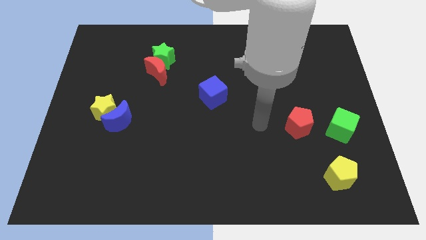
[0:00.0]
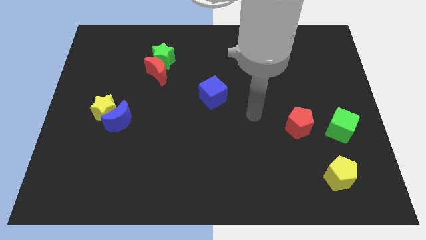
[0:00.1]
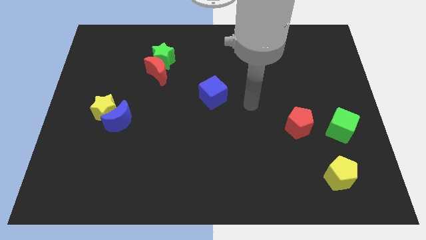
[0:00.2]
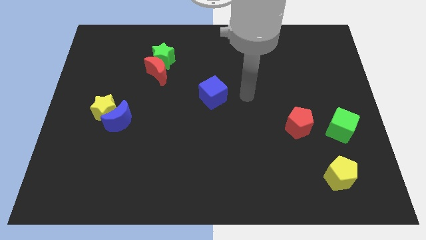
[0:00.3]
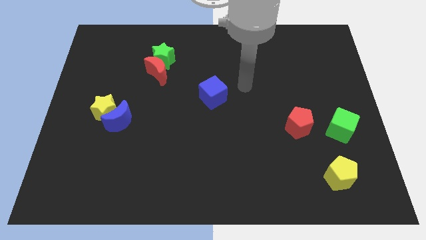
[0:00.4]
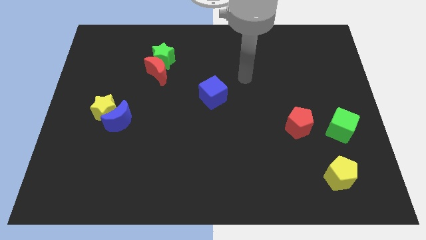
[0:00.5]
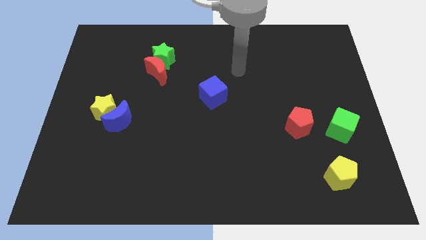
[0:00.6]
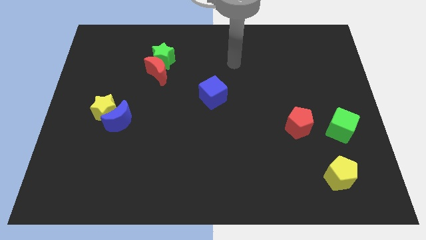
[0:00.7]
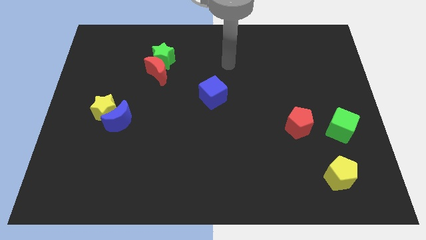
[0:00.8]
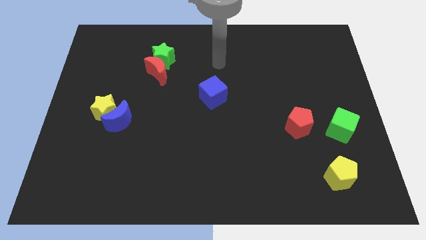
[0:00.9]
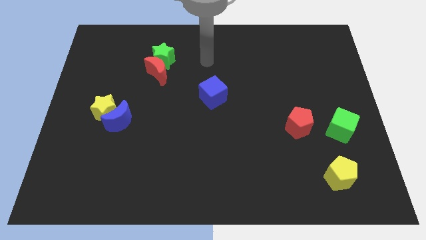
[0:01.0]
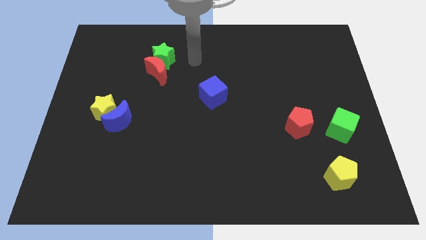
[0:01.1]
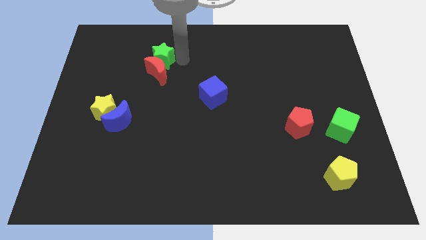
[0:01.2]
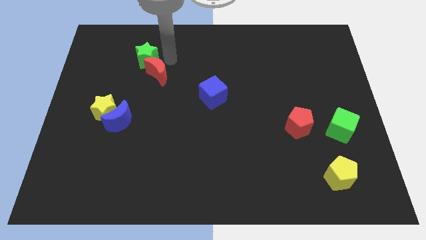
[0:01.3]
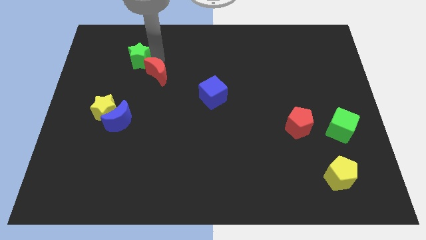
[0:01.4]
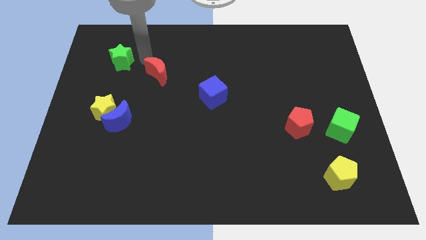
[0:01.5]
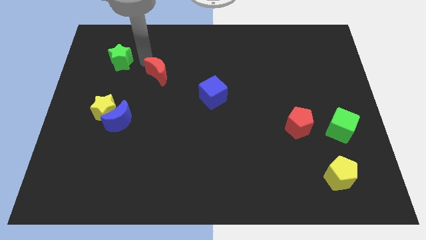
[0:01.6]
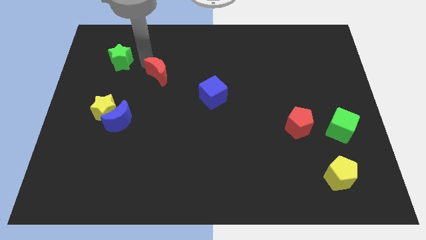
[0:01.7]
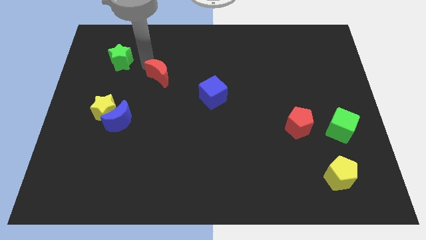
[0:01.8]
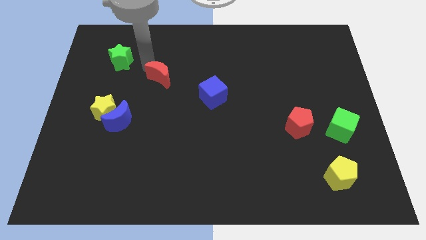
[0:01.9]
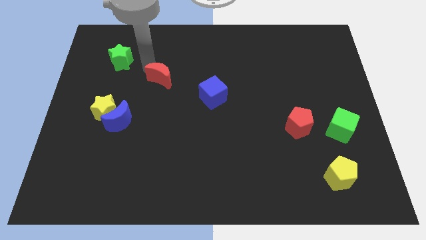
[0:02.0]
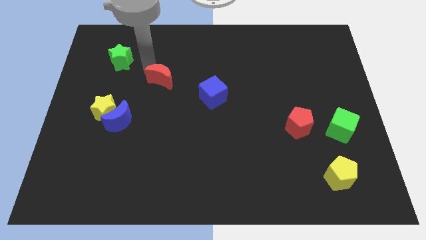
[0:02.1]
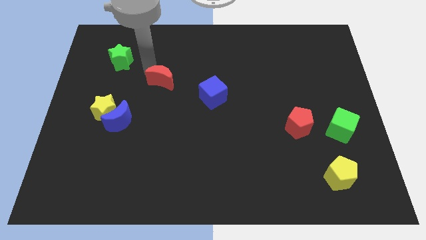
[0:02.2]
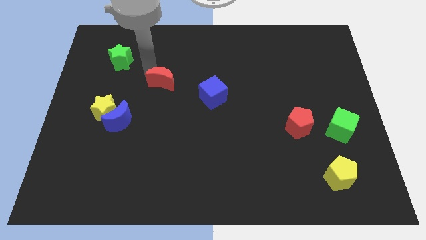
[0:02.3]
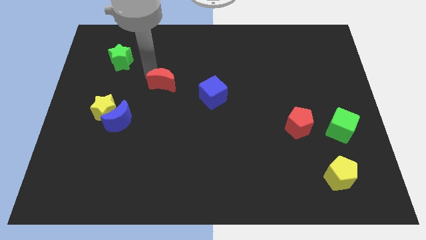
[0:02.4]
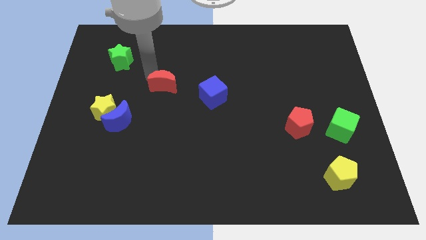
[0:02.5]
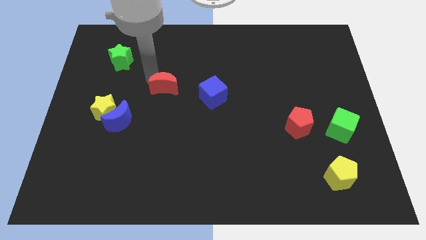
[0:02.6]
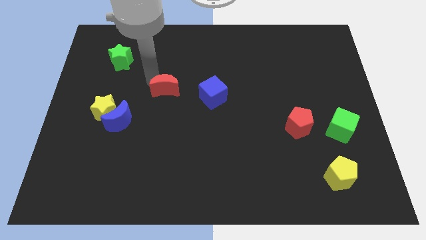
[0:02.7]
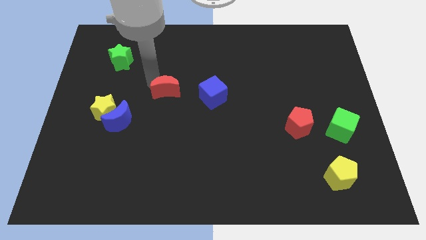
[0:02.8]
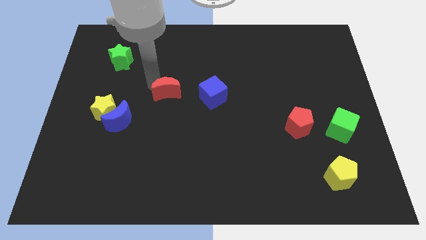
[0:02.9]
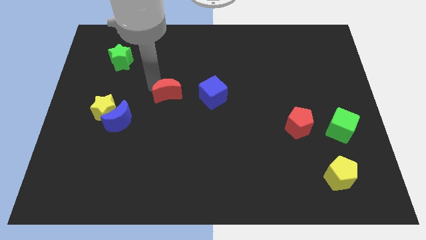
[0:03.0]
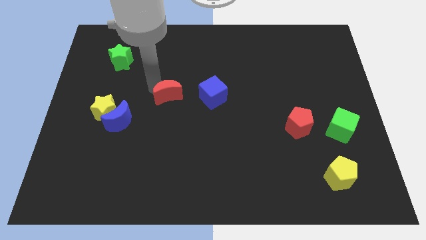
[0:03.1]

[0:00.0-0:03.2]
move the red moon diagonally downwards and to the right a little

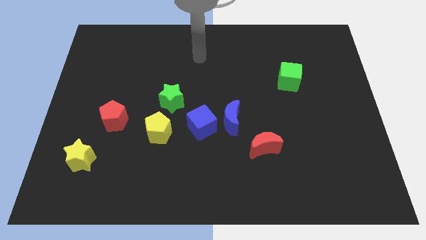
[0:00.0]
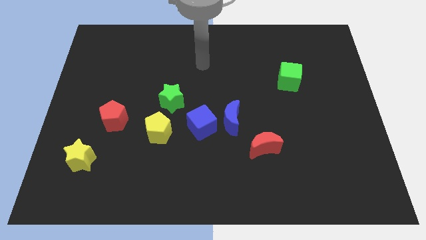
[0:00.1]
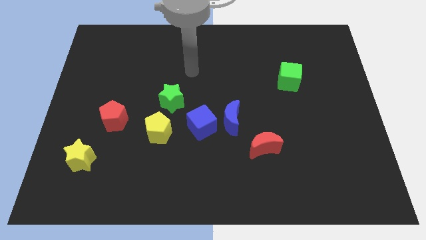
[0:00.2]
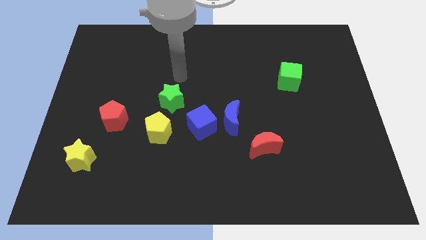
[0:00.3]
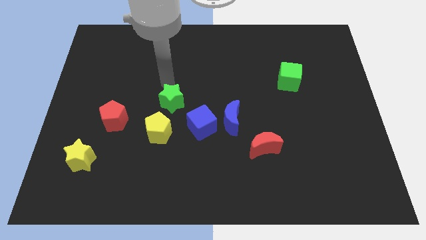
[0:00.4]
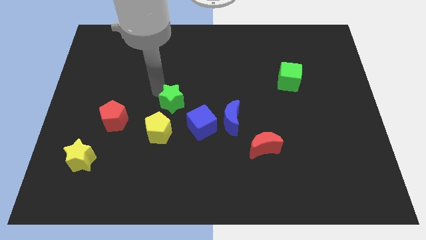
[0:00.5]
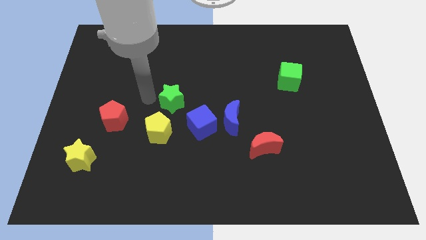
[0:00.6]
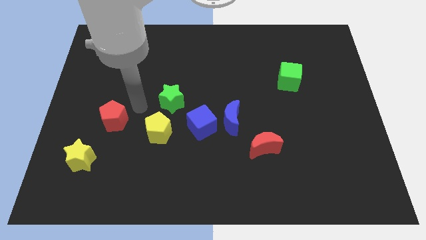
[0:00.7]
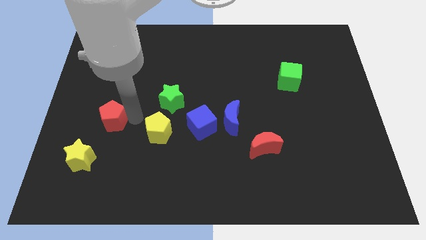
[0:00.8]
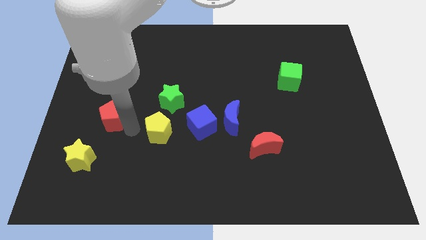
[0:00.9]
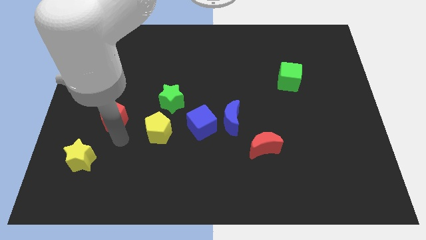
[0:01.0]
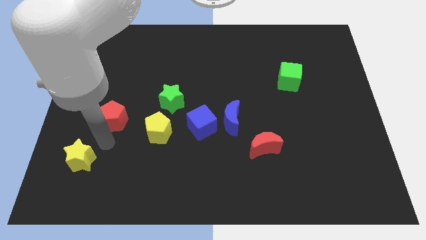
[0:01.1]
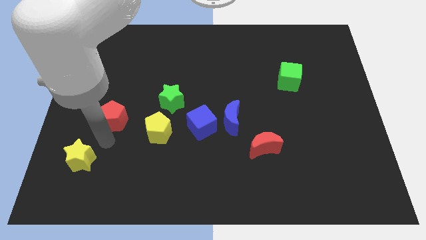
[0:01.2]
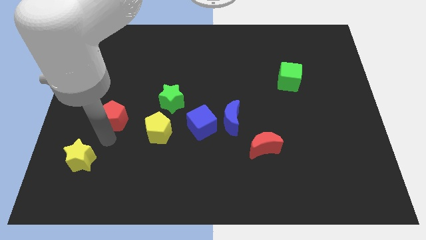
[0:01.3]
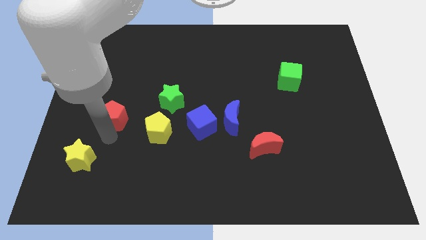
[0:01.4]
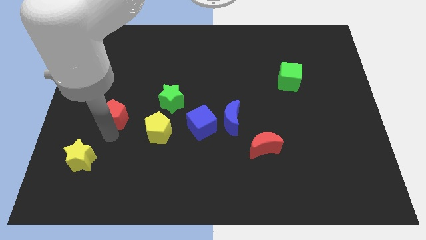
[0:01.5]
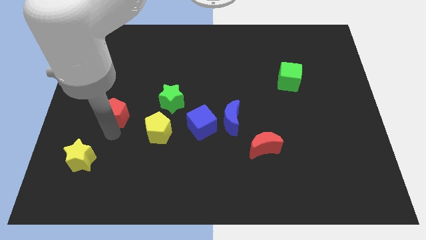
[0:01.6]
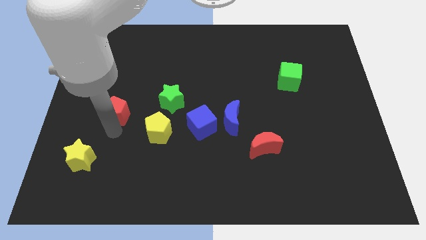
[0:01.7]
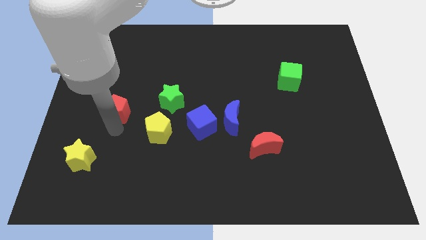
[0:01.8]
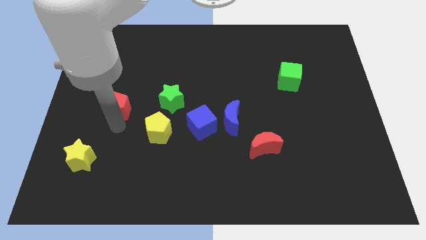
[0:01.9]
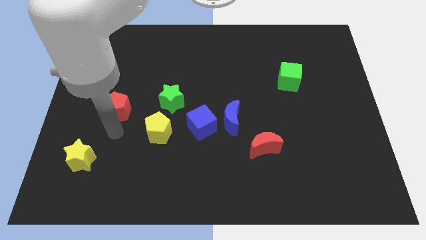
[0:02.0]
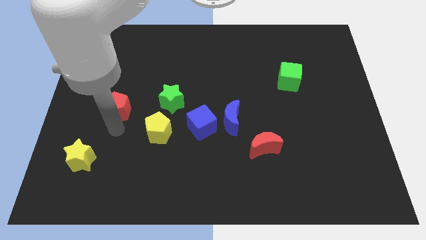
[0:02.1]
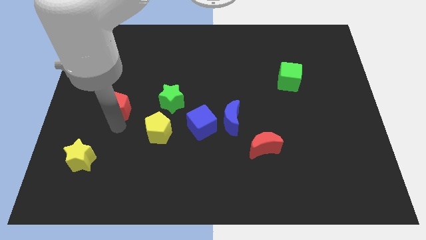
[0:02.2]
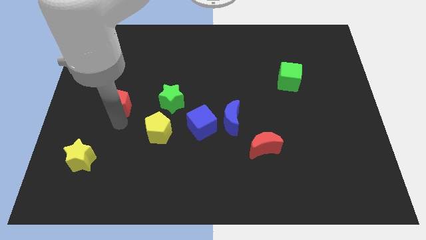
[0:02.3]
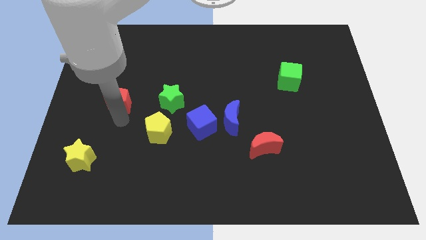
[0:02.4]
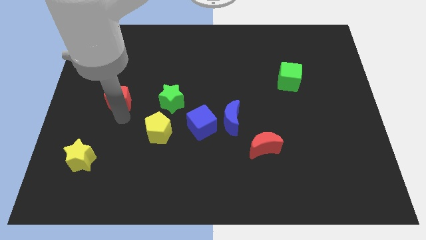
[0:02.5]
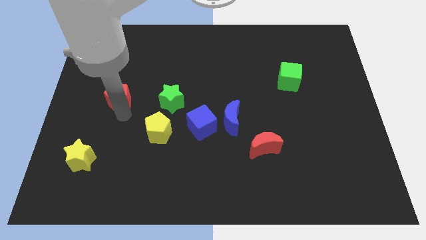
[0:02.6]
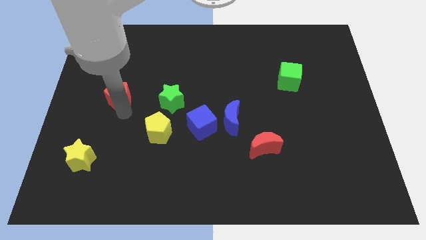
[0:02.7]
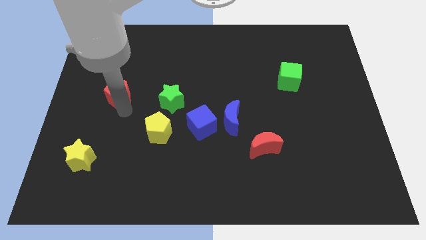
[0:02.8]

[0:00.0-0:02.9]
push the red pentagon a little bit up

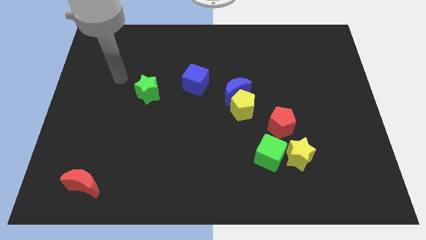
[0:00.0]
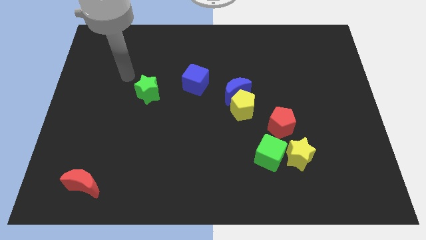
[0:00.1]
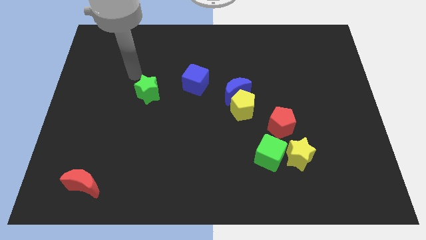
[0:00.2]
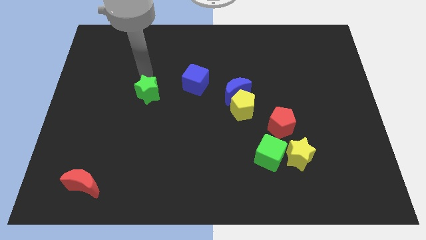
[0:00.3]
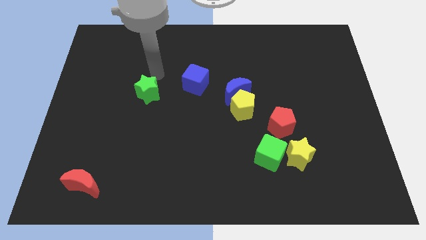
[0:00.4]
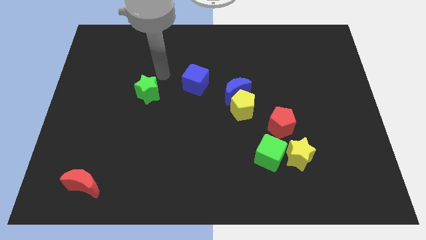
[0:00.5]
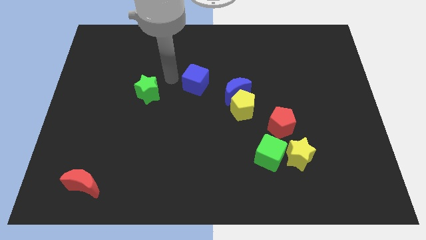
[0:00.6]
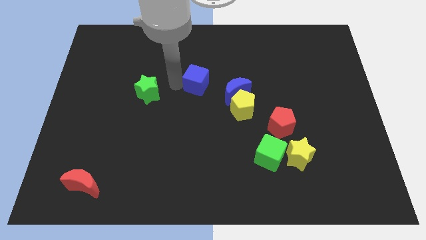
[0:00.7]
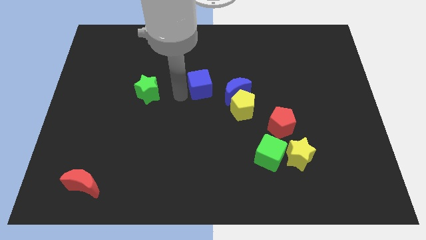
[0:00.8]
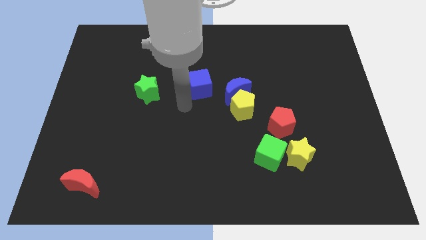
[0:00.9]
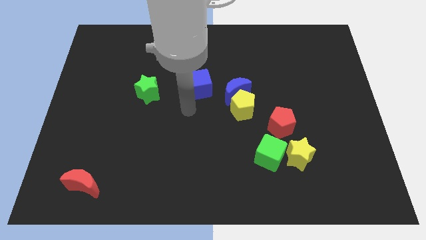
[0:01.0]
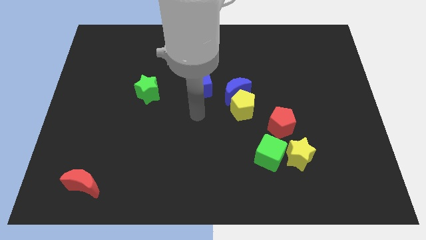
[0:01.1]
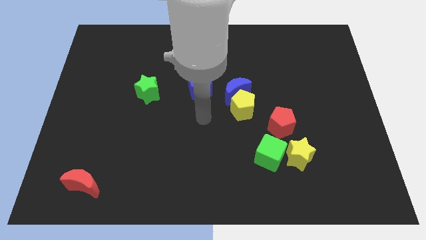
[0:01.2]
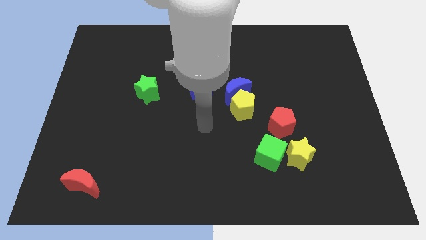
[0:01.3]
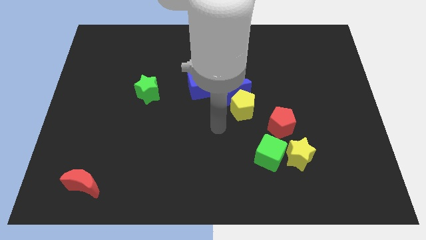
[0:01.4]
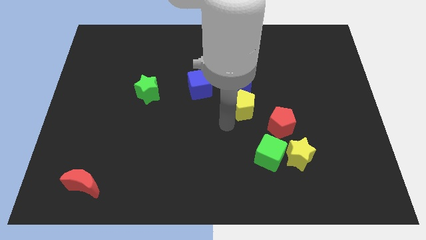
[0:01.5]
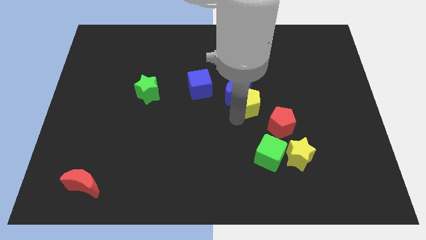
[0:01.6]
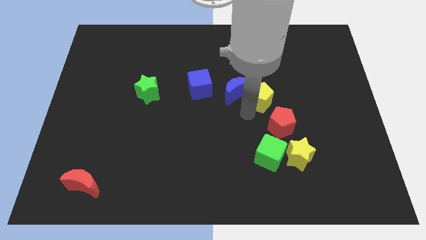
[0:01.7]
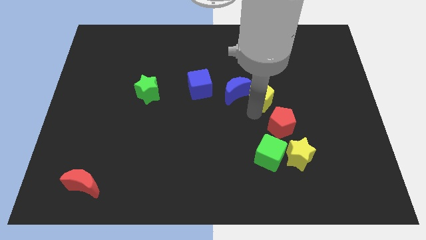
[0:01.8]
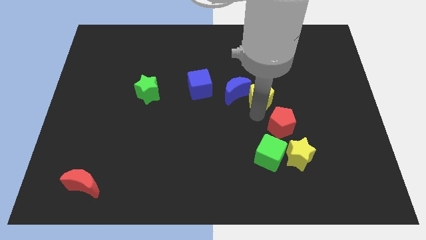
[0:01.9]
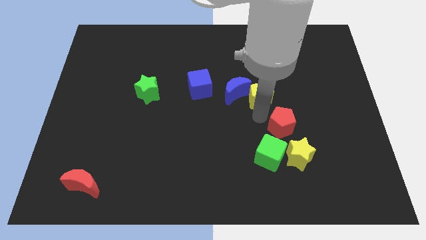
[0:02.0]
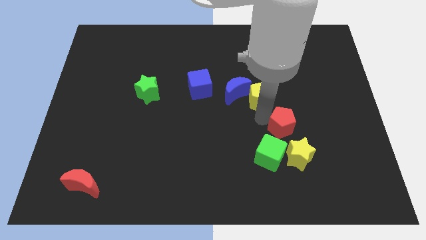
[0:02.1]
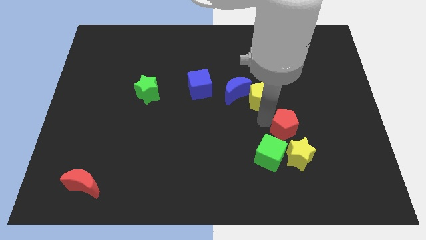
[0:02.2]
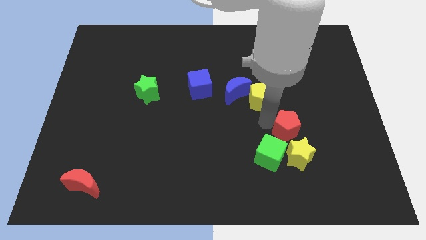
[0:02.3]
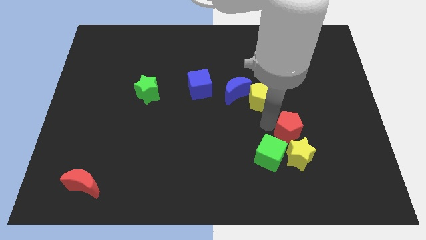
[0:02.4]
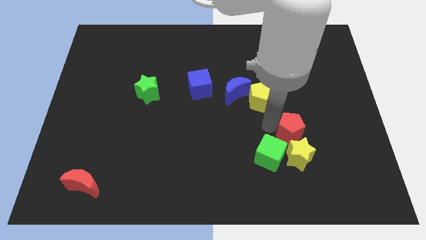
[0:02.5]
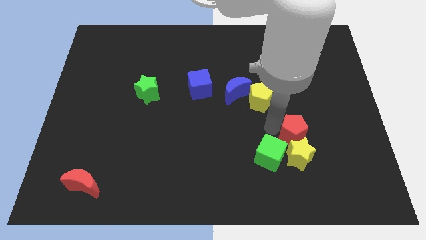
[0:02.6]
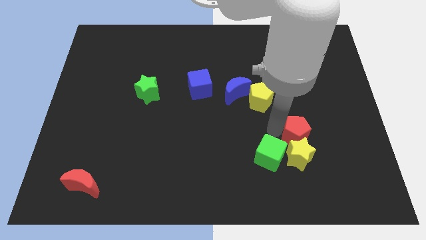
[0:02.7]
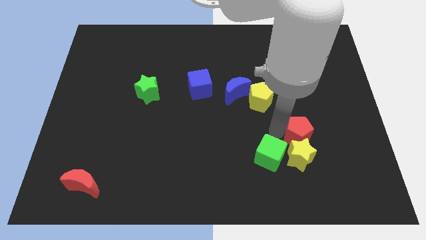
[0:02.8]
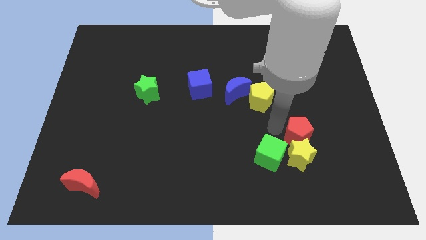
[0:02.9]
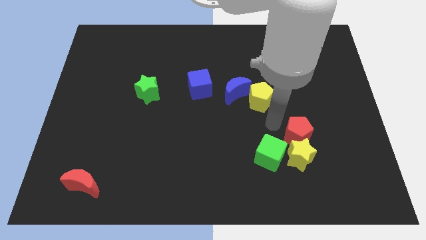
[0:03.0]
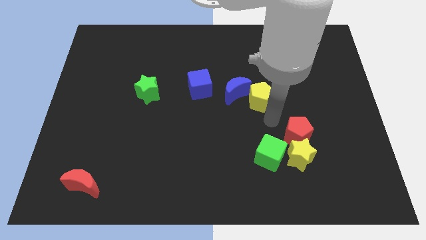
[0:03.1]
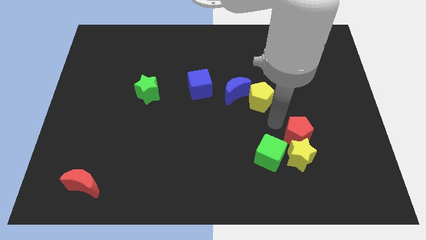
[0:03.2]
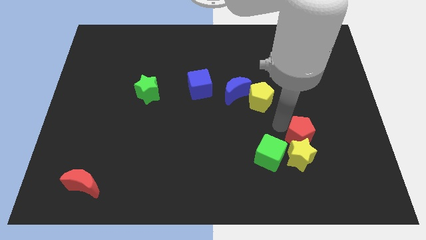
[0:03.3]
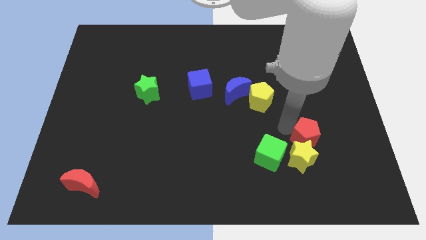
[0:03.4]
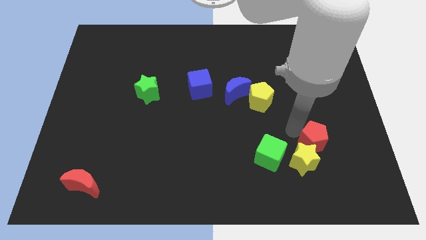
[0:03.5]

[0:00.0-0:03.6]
push the red pentagon down and to the right diagonally a little bit
